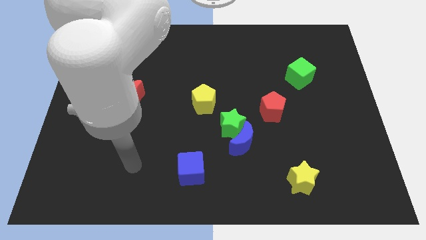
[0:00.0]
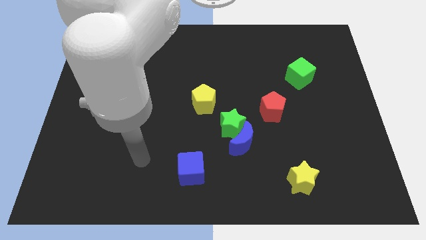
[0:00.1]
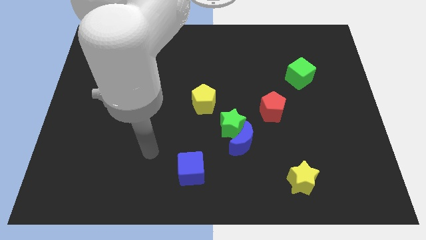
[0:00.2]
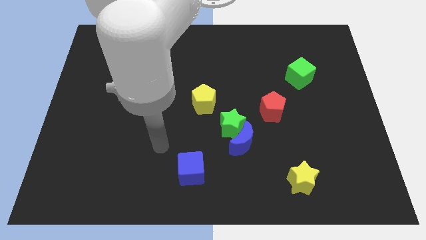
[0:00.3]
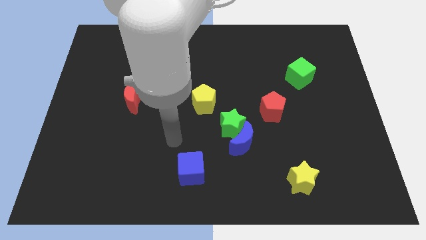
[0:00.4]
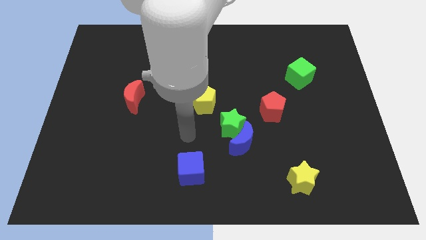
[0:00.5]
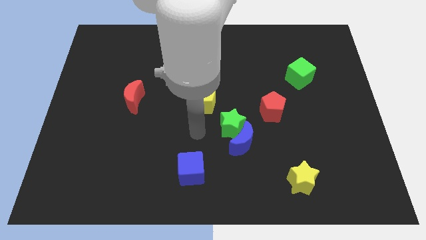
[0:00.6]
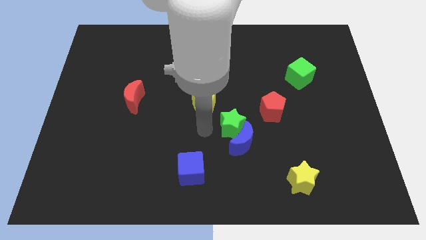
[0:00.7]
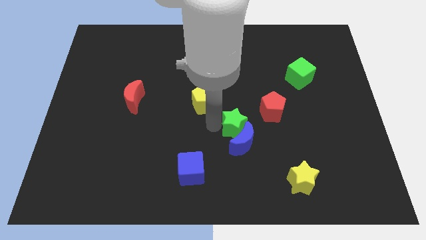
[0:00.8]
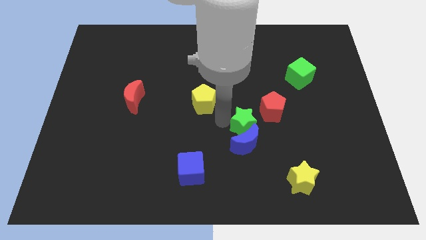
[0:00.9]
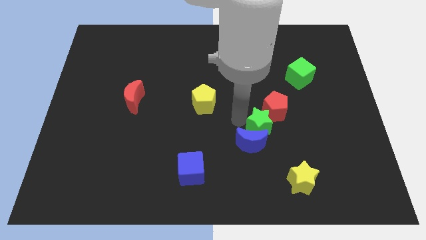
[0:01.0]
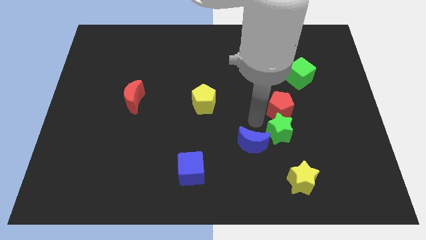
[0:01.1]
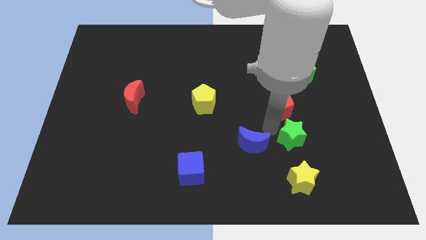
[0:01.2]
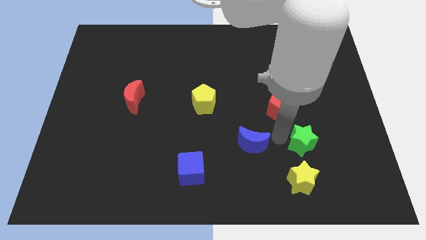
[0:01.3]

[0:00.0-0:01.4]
separate the blue moon from the green star

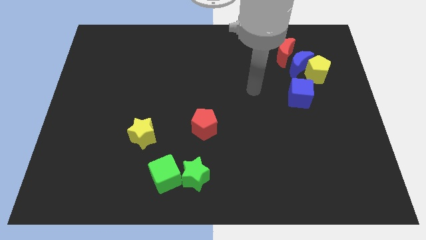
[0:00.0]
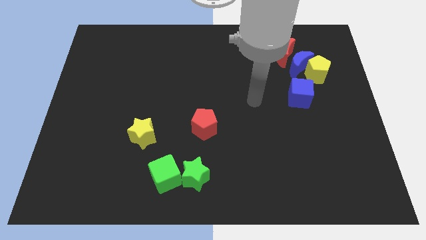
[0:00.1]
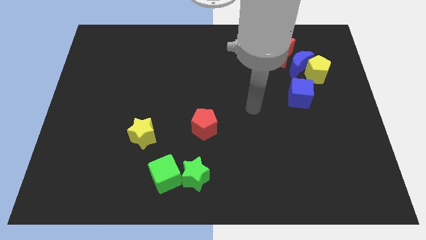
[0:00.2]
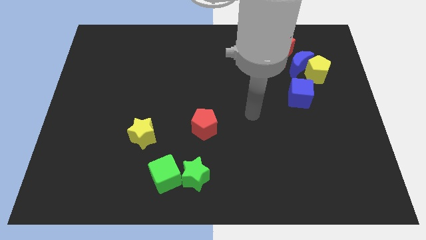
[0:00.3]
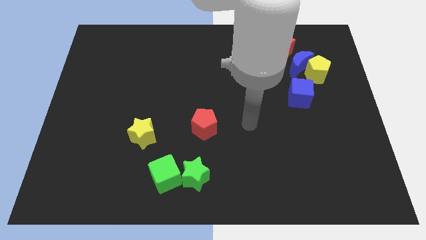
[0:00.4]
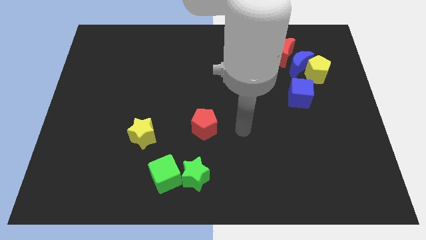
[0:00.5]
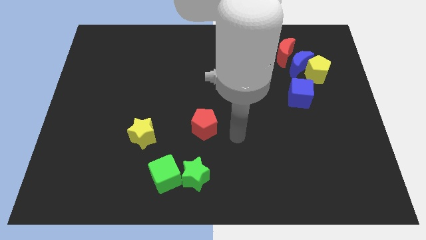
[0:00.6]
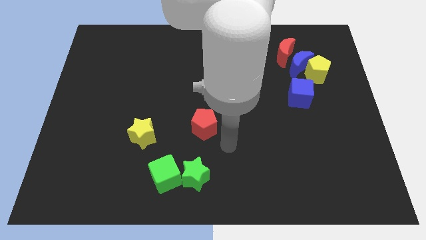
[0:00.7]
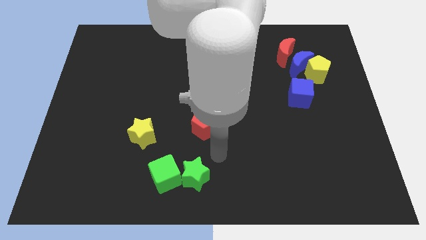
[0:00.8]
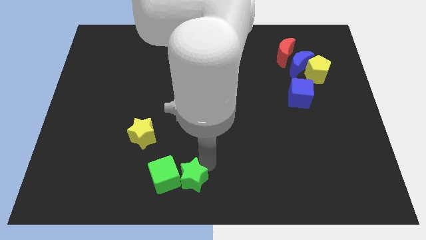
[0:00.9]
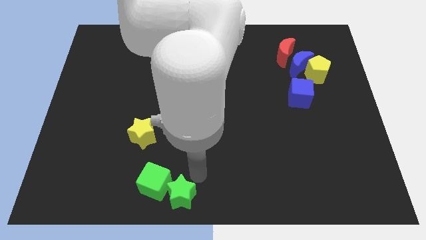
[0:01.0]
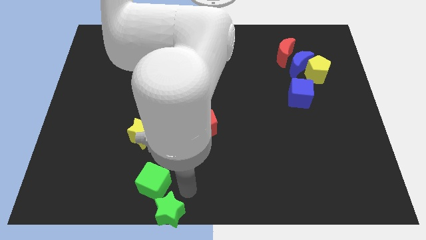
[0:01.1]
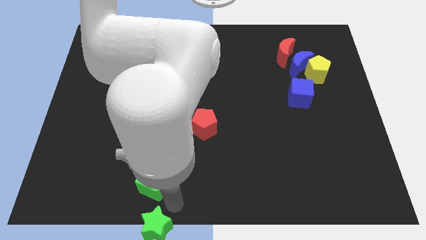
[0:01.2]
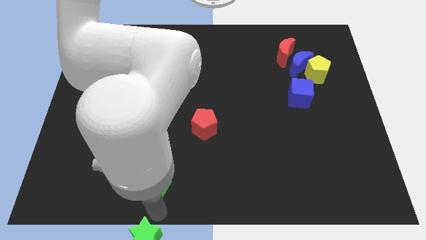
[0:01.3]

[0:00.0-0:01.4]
move the green cube away from the green star

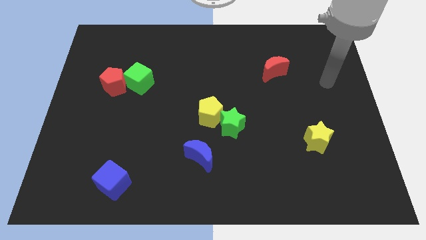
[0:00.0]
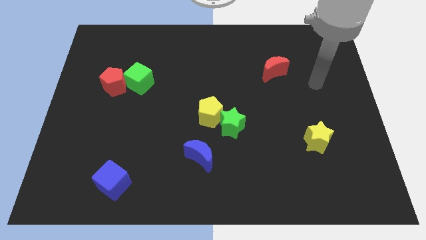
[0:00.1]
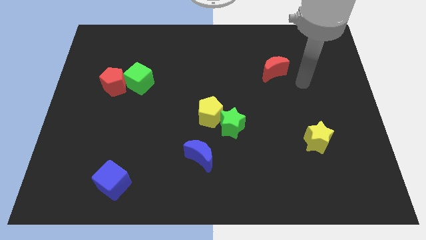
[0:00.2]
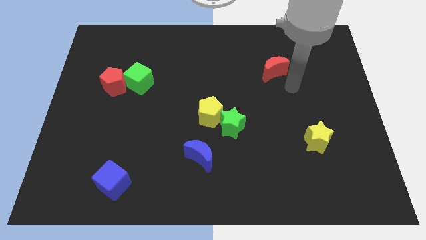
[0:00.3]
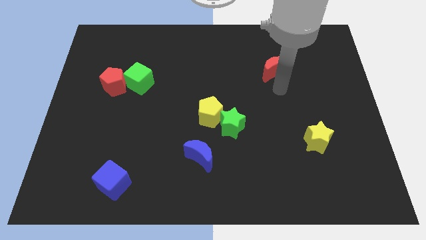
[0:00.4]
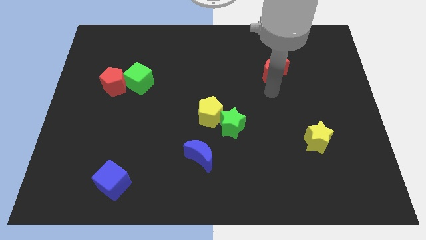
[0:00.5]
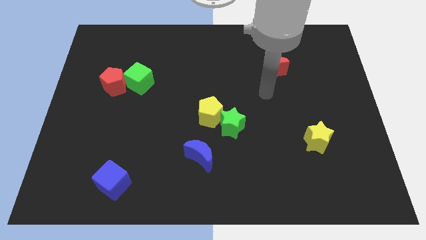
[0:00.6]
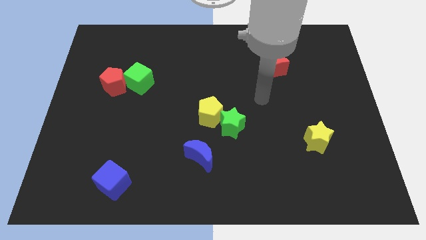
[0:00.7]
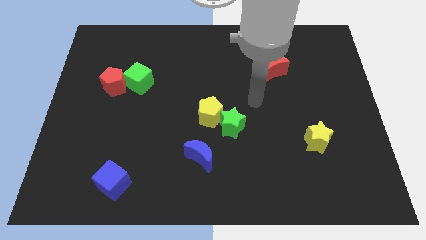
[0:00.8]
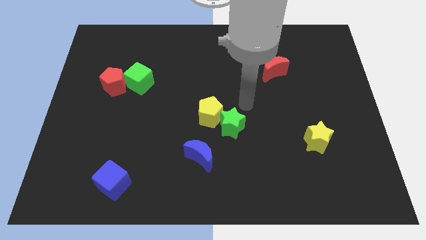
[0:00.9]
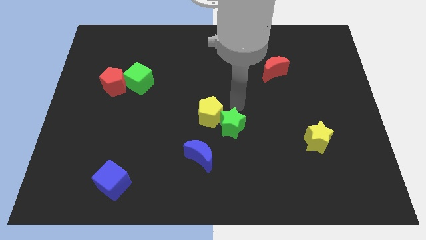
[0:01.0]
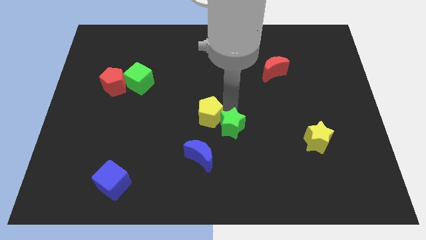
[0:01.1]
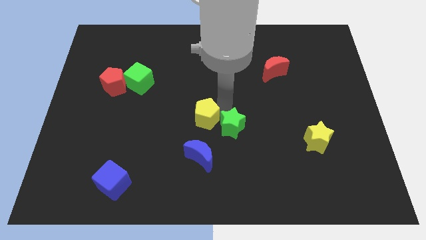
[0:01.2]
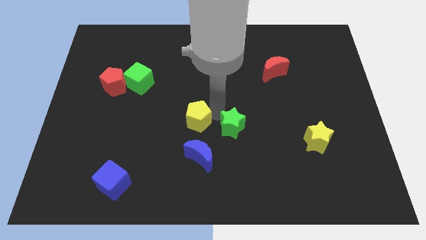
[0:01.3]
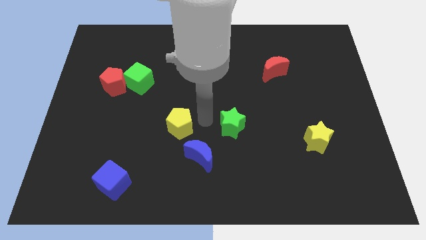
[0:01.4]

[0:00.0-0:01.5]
separate the green star from the yellow pentagon

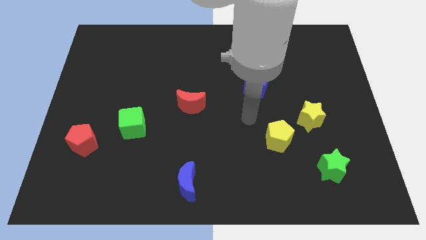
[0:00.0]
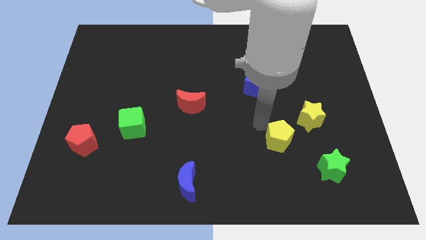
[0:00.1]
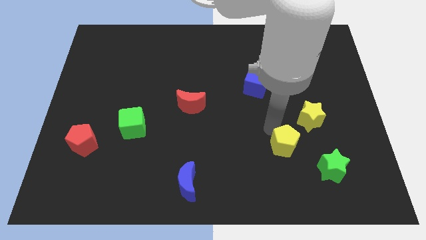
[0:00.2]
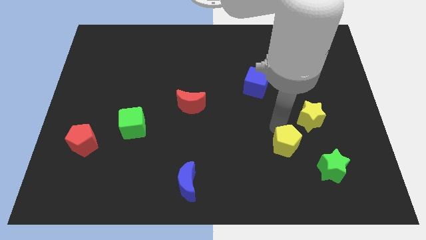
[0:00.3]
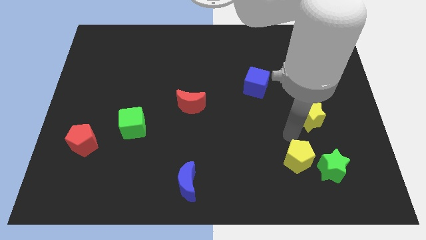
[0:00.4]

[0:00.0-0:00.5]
pull the yellow star apart from the yellow pentagon

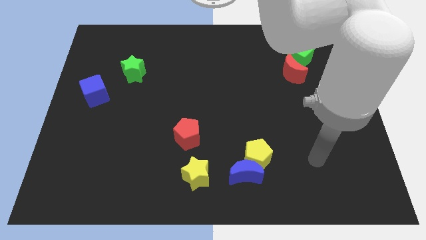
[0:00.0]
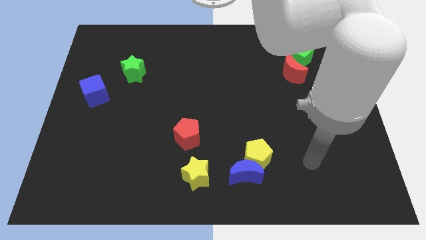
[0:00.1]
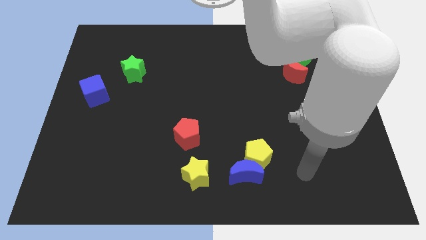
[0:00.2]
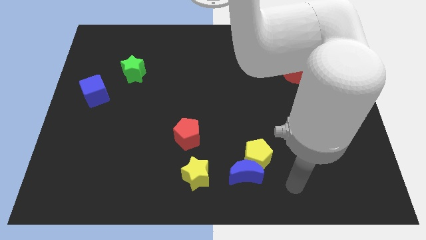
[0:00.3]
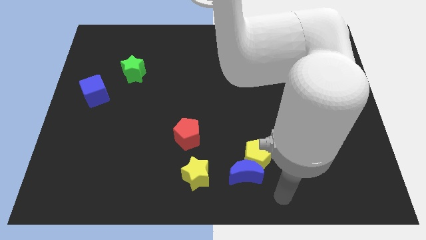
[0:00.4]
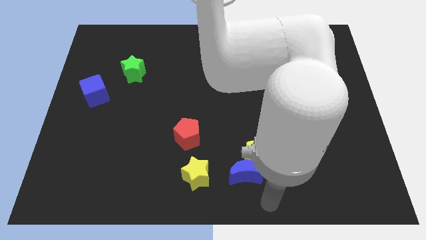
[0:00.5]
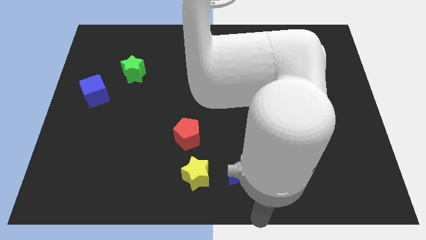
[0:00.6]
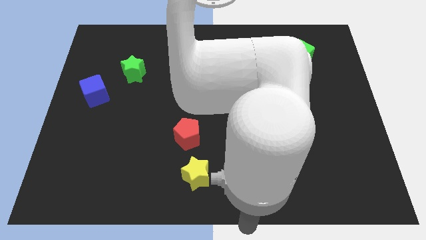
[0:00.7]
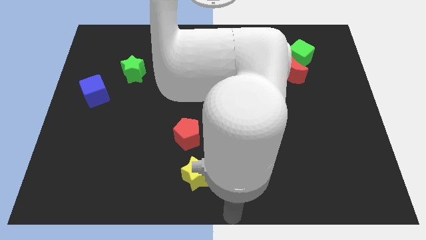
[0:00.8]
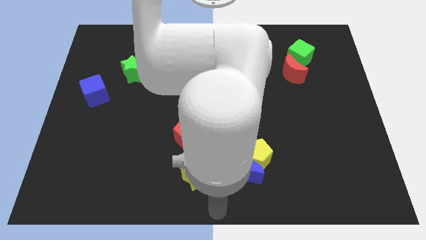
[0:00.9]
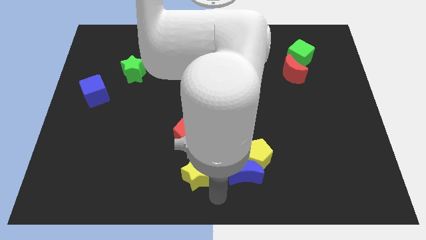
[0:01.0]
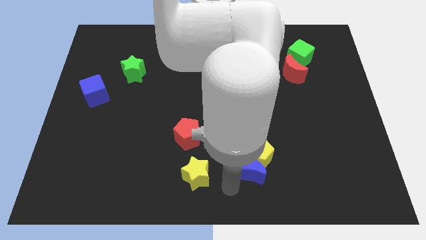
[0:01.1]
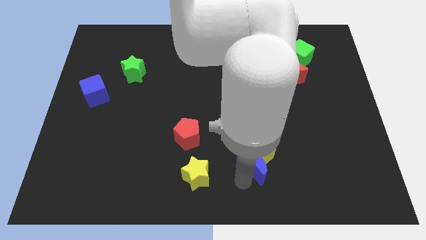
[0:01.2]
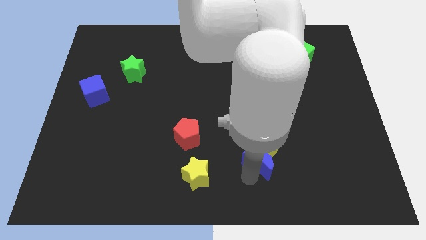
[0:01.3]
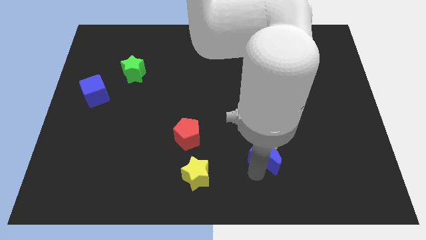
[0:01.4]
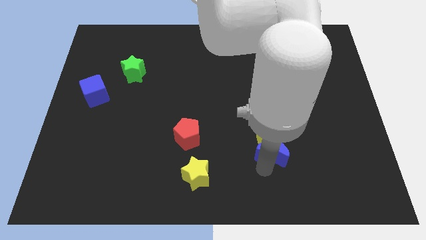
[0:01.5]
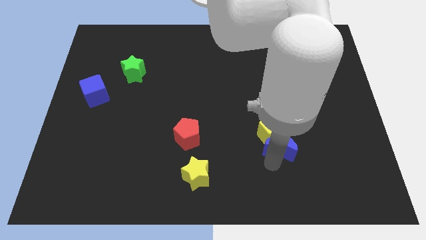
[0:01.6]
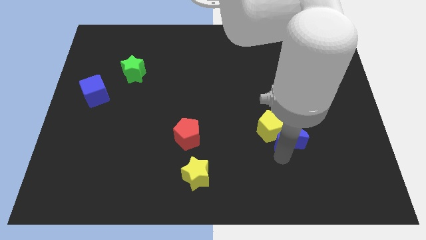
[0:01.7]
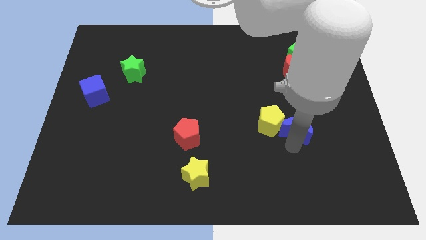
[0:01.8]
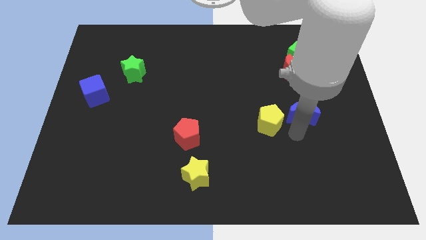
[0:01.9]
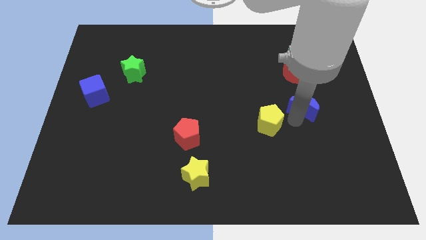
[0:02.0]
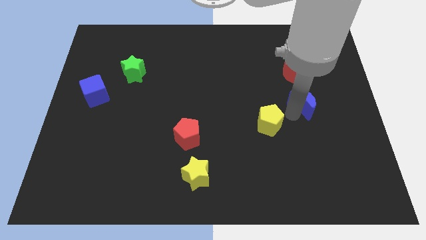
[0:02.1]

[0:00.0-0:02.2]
move the yellow pentagon away from the blue moon

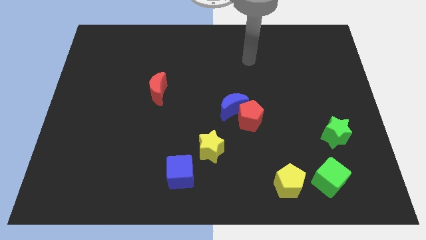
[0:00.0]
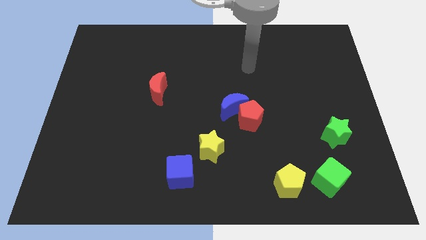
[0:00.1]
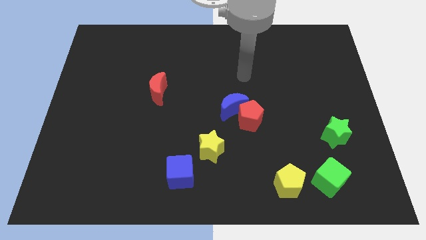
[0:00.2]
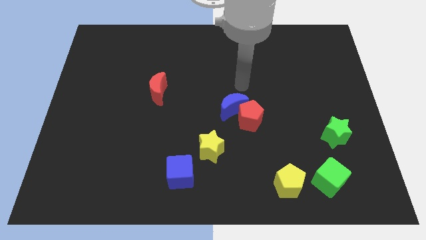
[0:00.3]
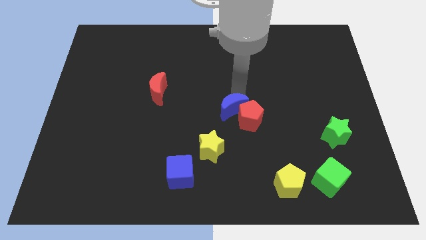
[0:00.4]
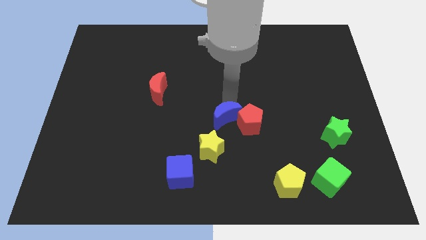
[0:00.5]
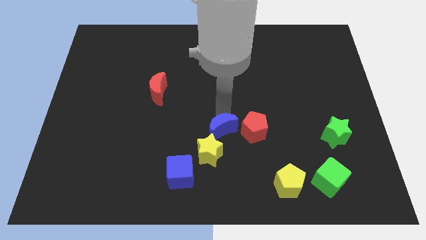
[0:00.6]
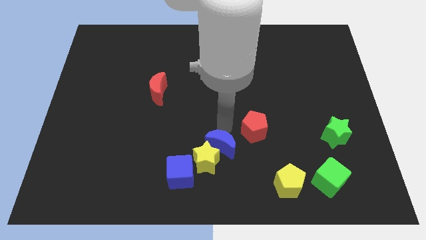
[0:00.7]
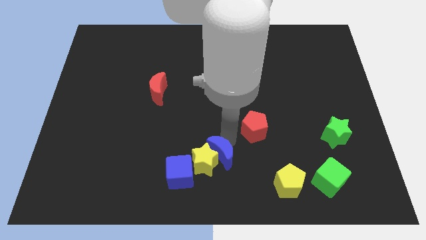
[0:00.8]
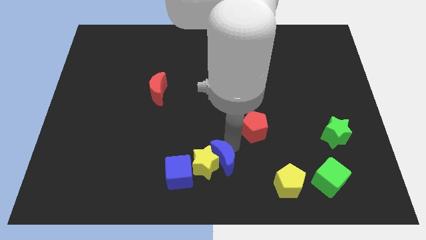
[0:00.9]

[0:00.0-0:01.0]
pull the red pentagon apart from the blue moon

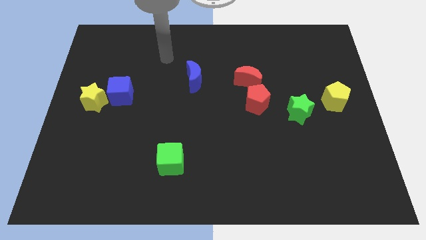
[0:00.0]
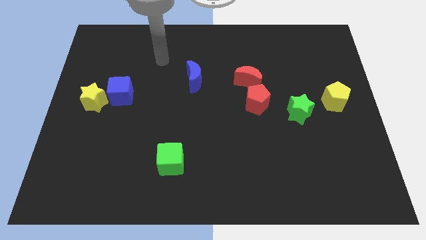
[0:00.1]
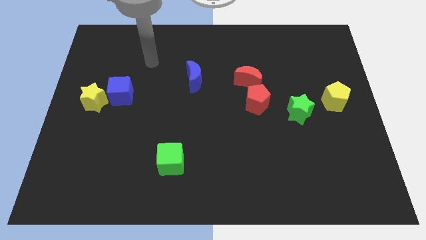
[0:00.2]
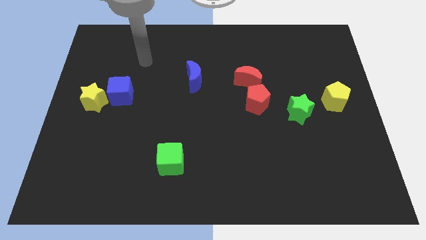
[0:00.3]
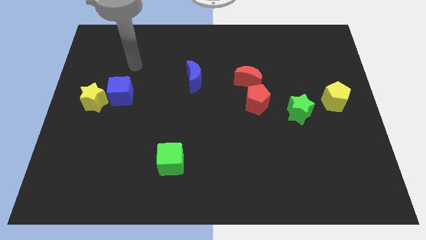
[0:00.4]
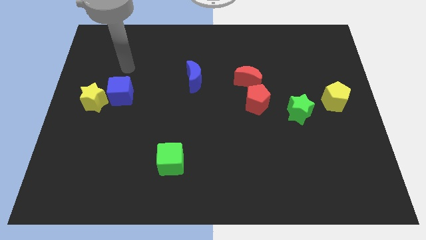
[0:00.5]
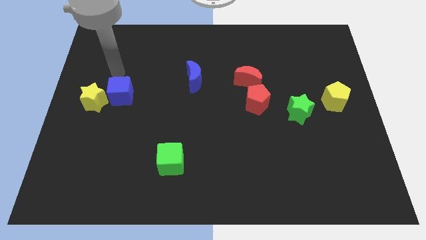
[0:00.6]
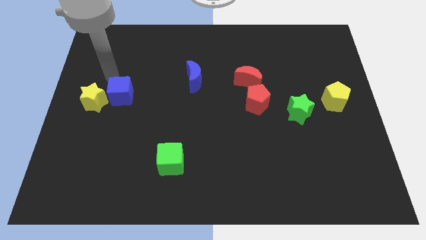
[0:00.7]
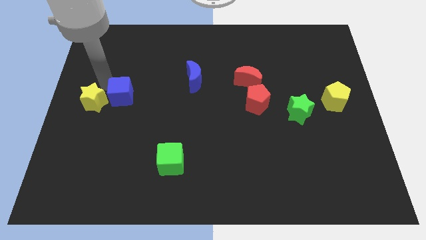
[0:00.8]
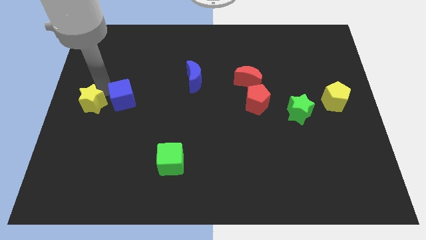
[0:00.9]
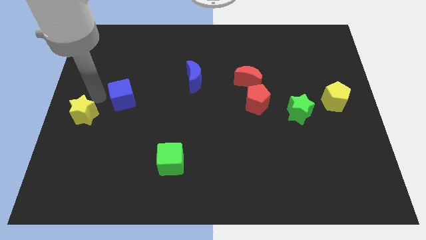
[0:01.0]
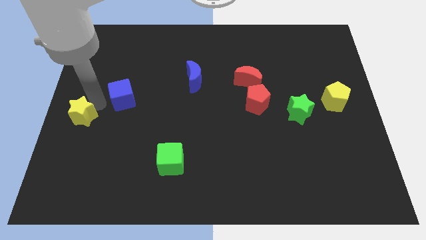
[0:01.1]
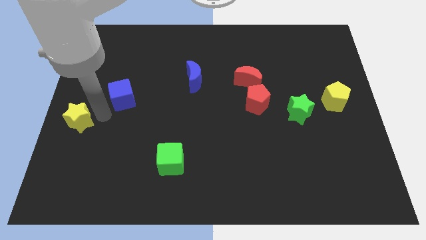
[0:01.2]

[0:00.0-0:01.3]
pull the blue cube apart from the yellow star
